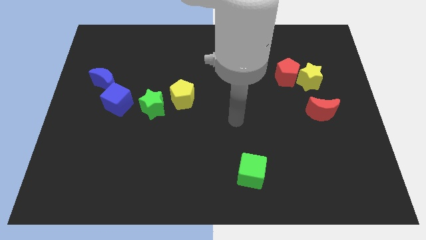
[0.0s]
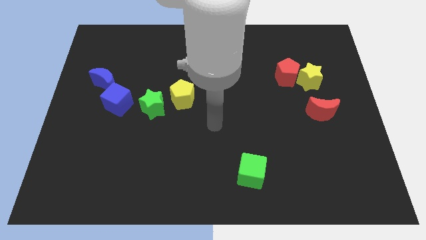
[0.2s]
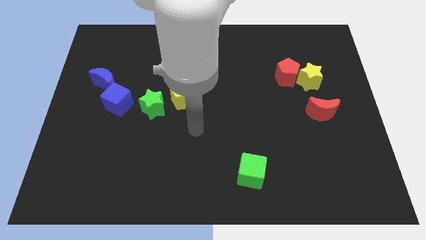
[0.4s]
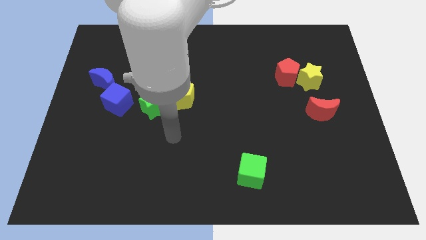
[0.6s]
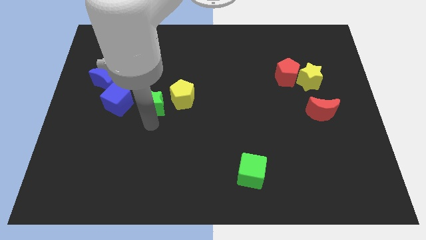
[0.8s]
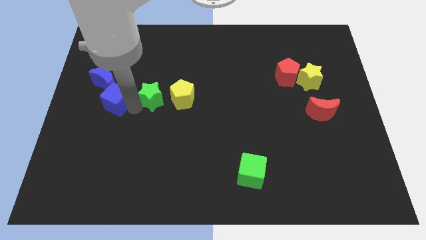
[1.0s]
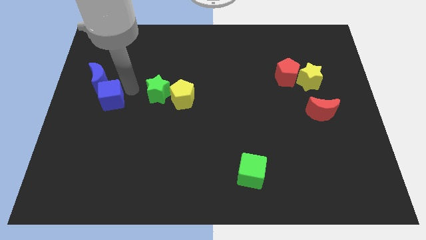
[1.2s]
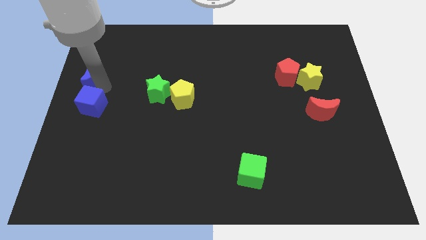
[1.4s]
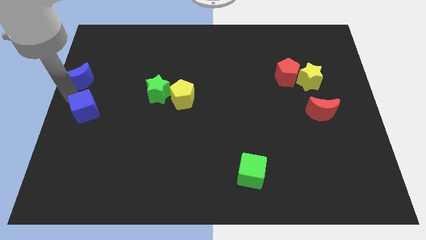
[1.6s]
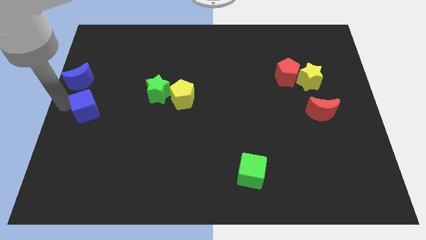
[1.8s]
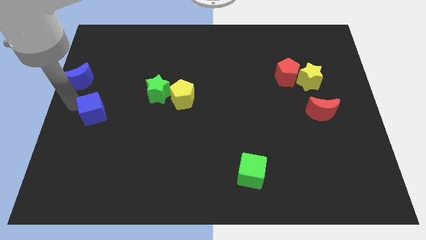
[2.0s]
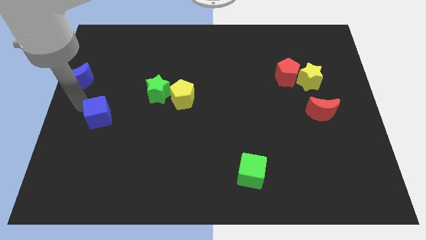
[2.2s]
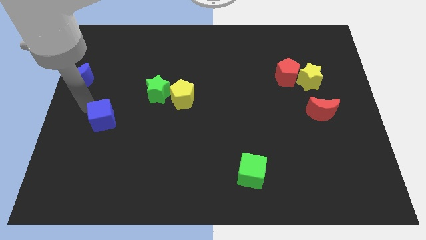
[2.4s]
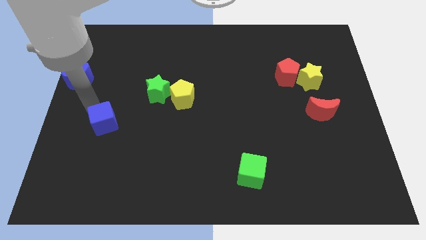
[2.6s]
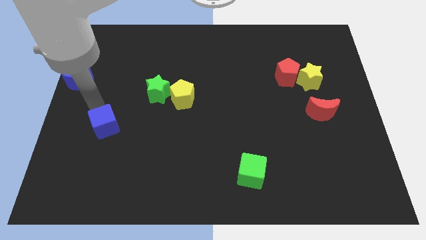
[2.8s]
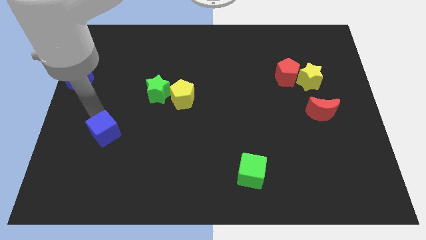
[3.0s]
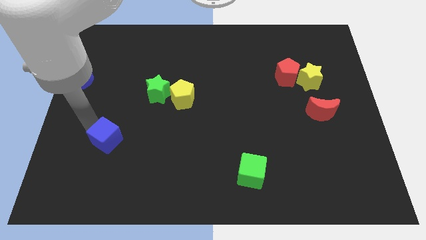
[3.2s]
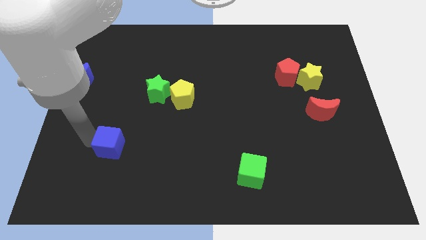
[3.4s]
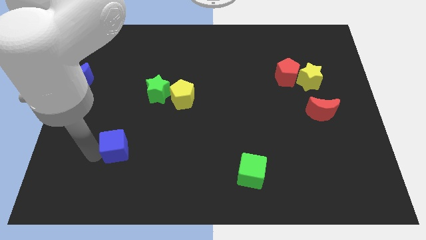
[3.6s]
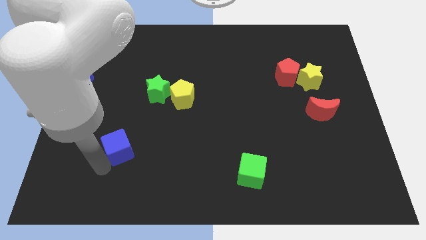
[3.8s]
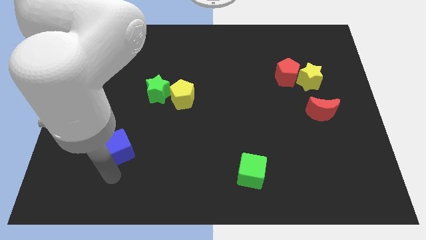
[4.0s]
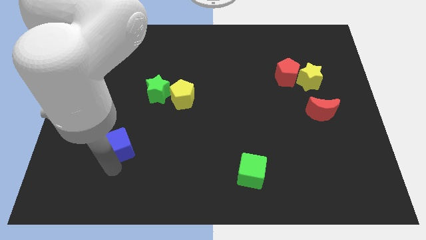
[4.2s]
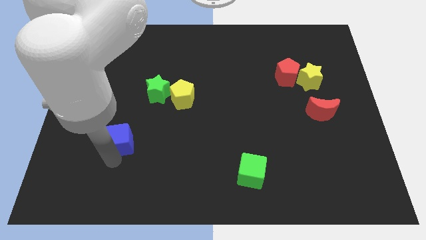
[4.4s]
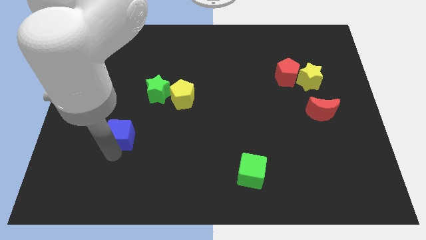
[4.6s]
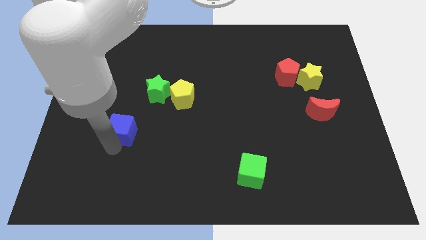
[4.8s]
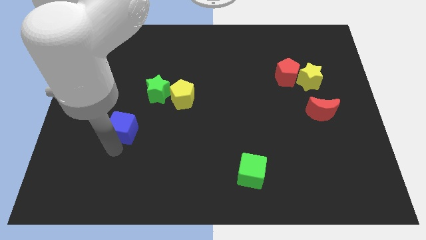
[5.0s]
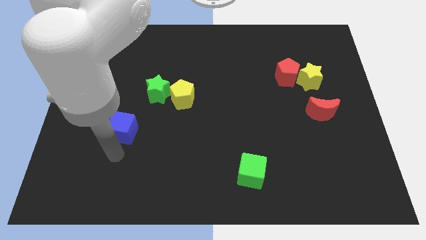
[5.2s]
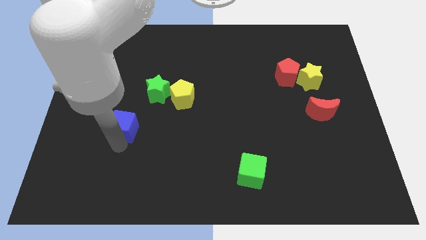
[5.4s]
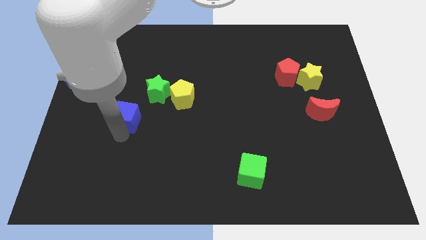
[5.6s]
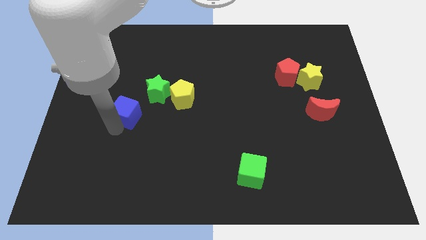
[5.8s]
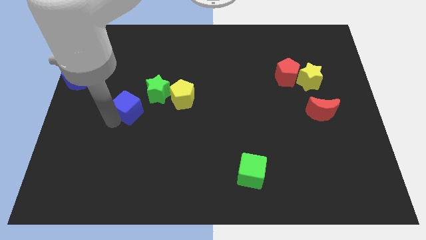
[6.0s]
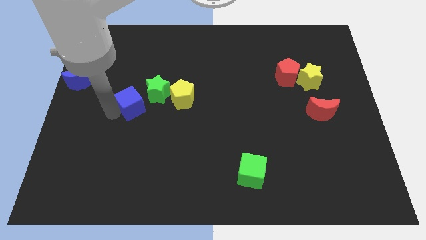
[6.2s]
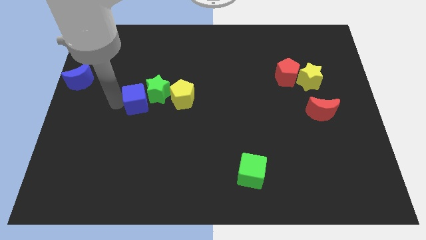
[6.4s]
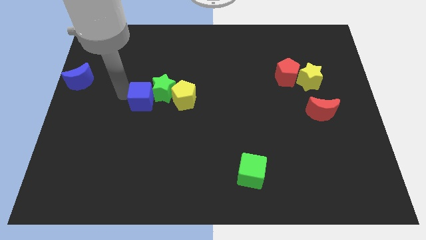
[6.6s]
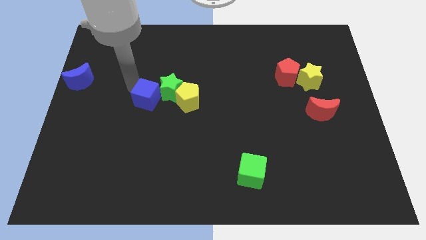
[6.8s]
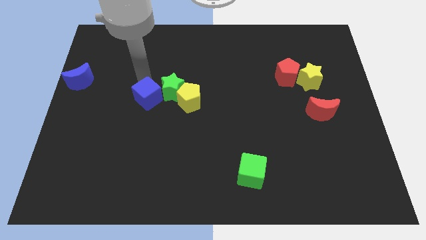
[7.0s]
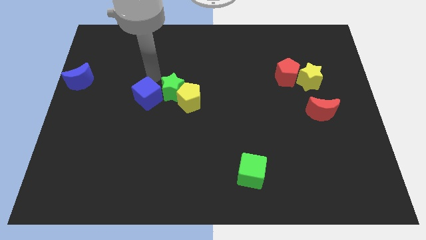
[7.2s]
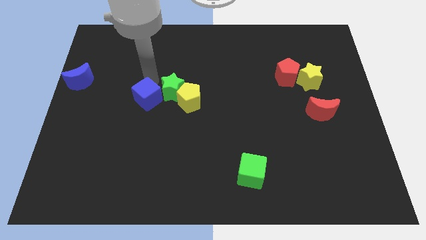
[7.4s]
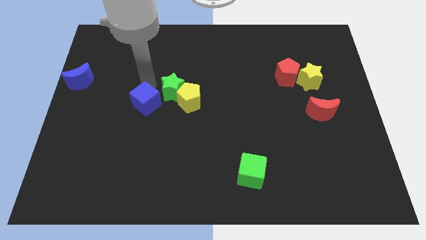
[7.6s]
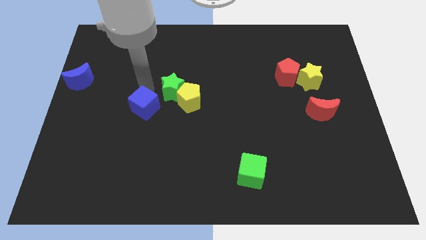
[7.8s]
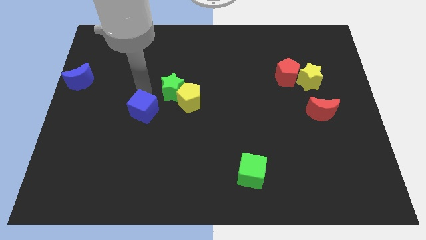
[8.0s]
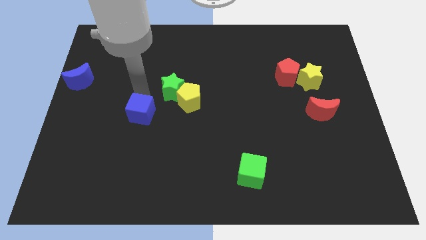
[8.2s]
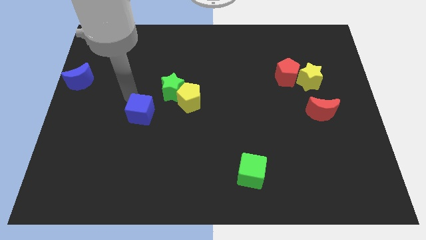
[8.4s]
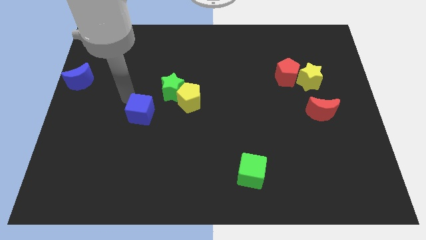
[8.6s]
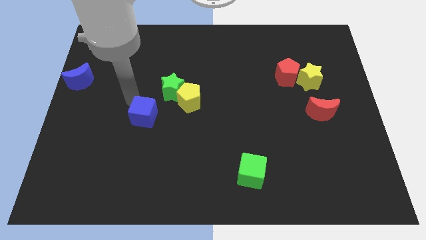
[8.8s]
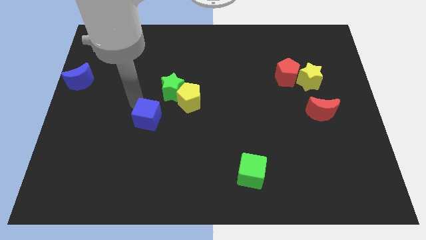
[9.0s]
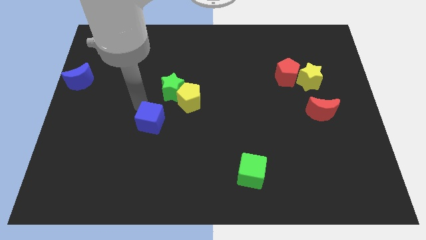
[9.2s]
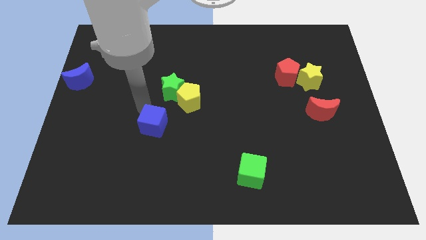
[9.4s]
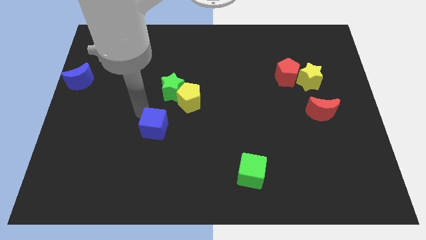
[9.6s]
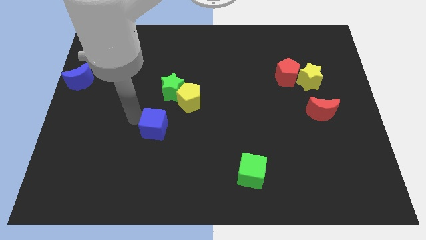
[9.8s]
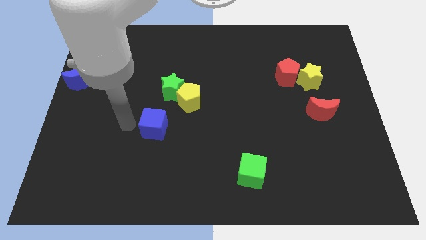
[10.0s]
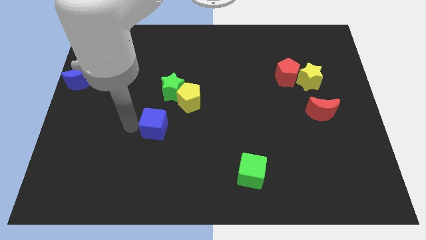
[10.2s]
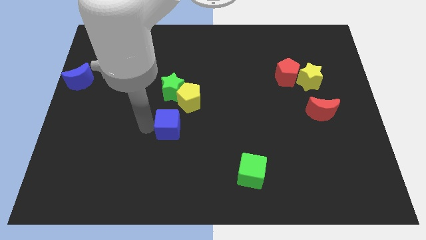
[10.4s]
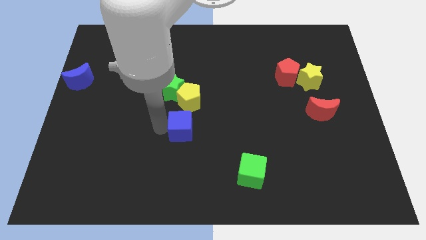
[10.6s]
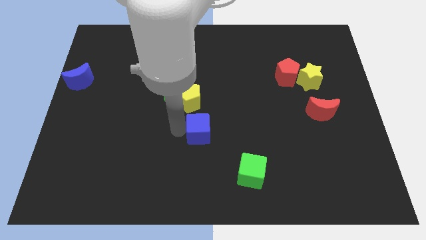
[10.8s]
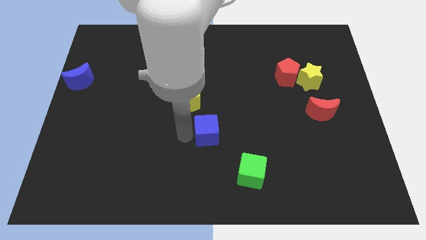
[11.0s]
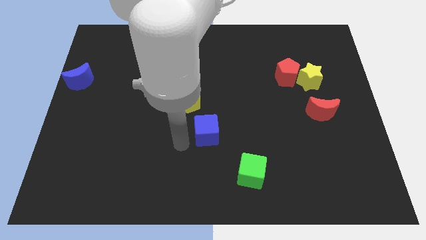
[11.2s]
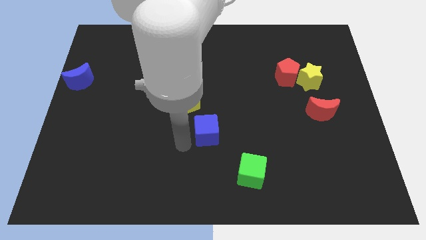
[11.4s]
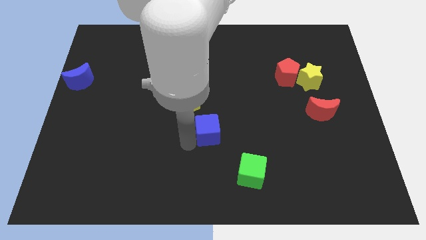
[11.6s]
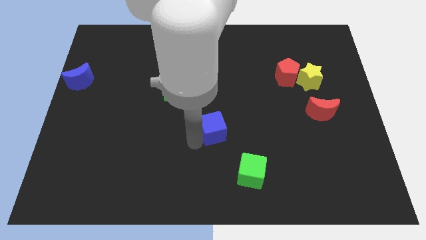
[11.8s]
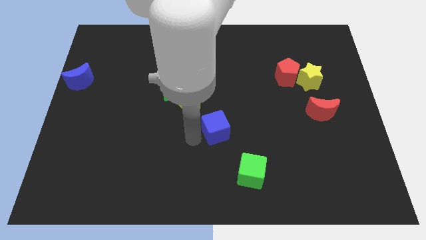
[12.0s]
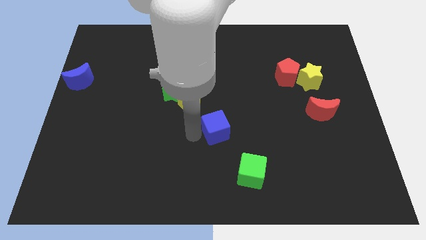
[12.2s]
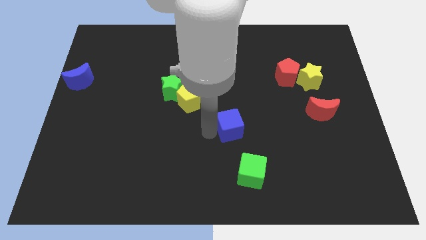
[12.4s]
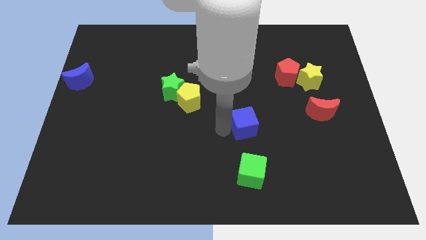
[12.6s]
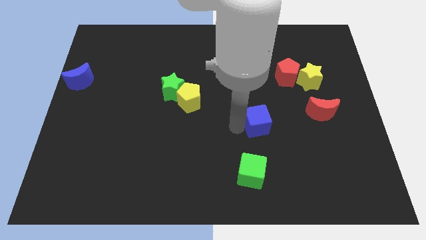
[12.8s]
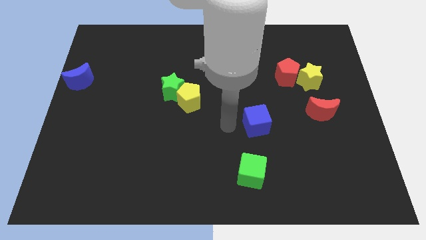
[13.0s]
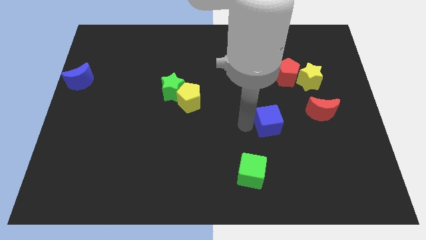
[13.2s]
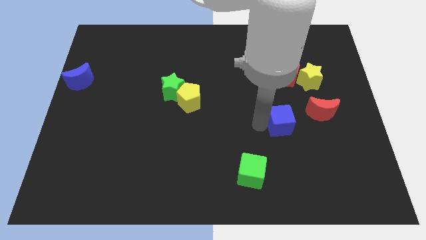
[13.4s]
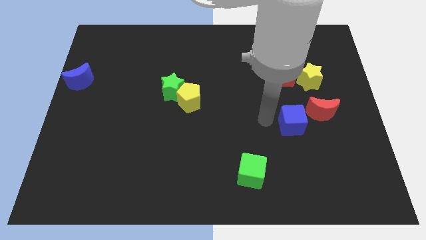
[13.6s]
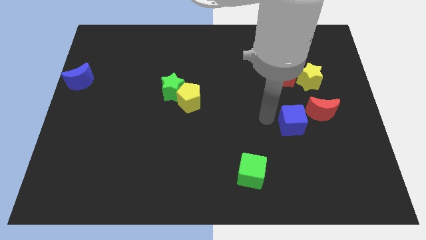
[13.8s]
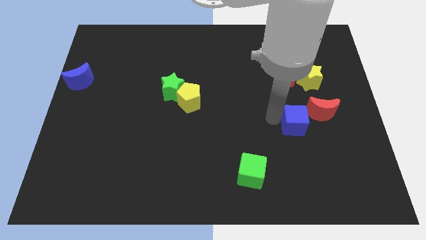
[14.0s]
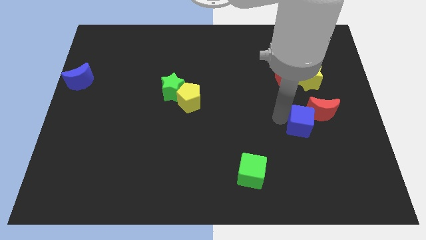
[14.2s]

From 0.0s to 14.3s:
move the blue cube to the bottom of the yellow star
